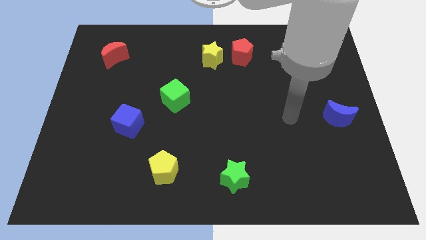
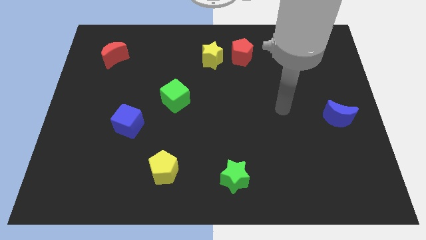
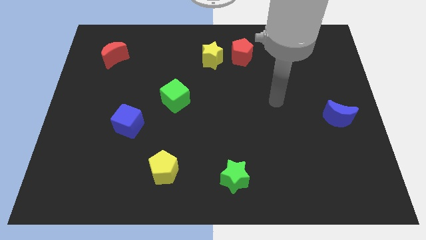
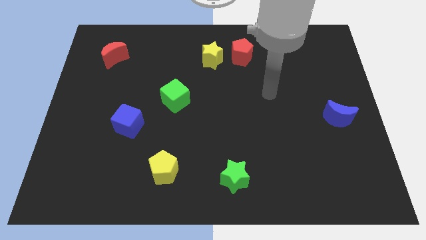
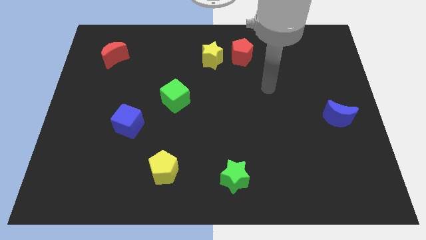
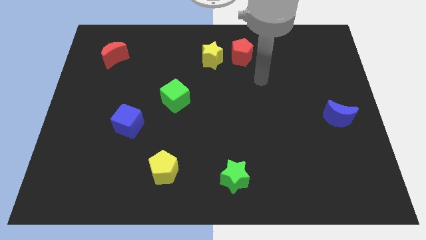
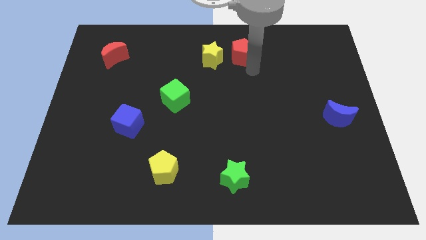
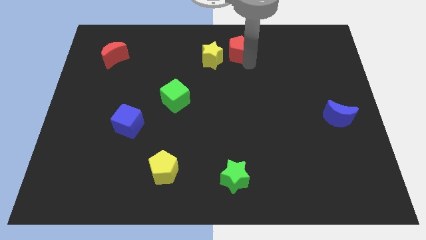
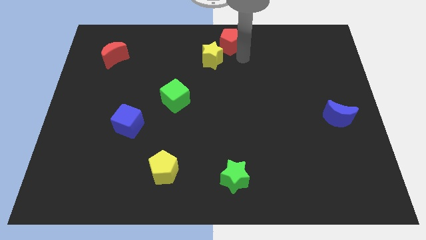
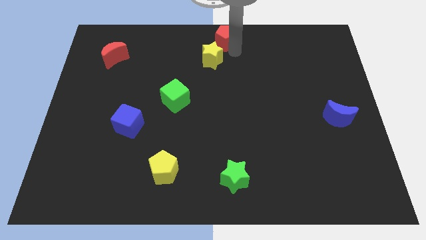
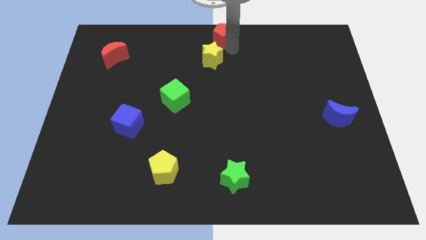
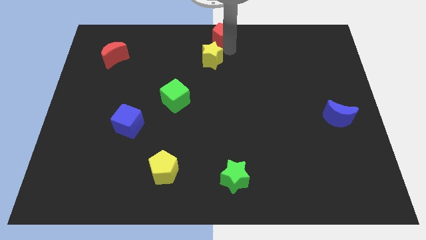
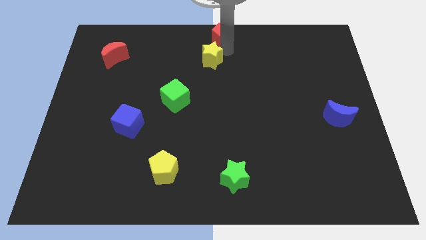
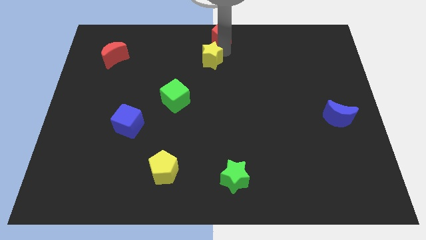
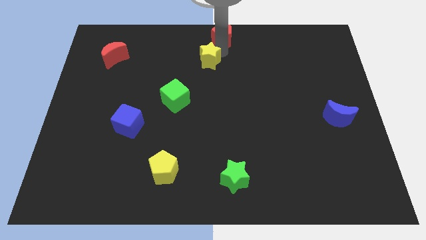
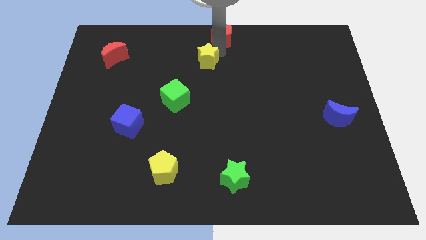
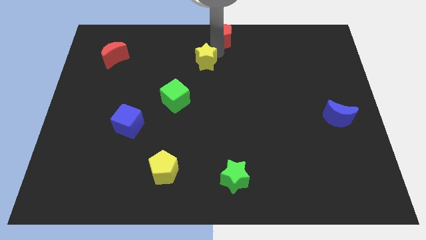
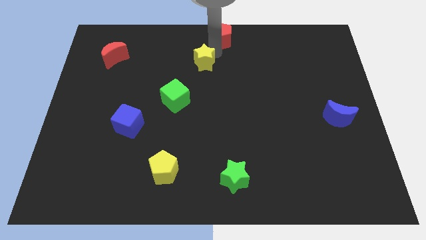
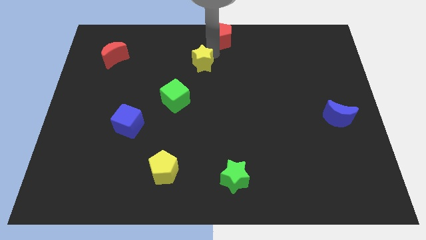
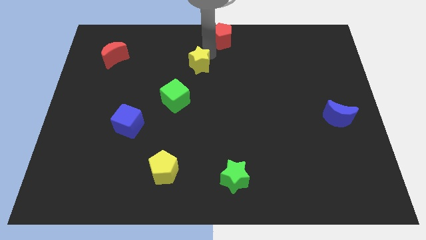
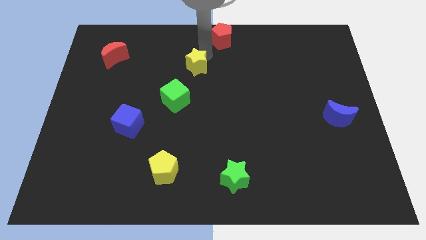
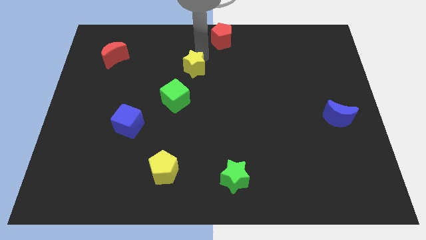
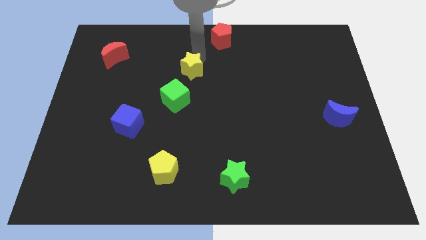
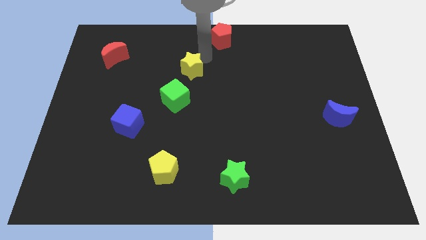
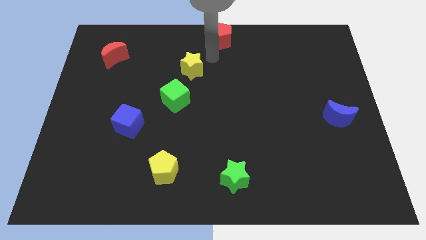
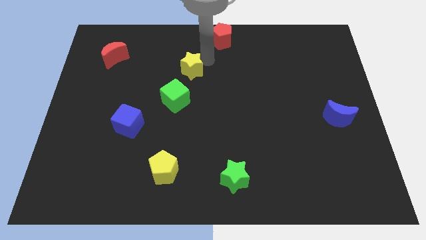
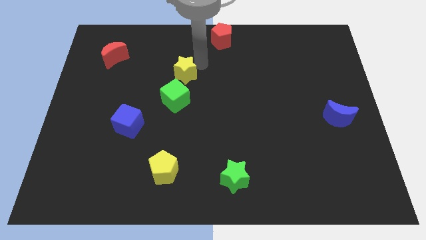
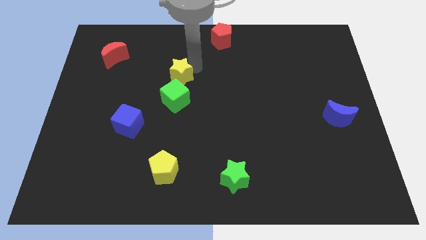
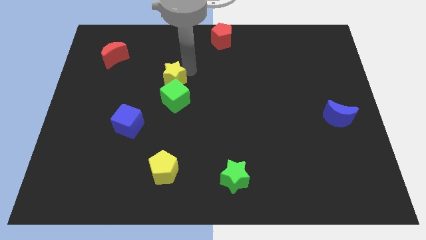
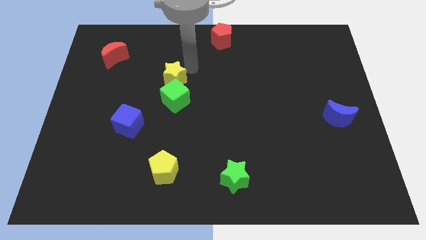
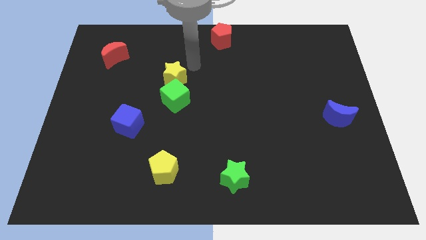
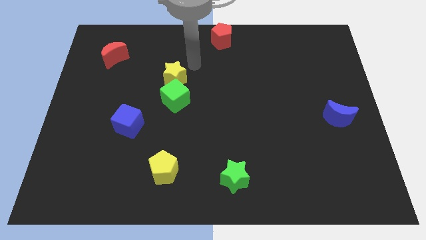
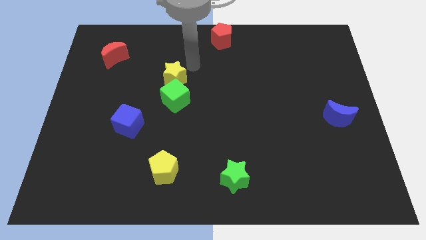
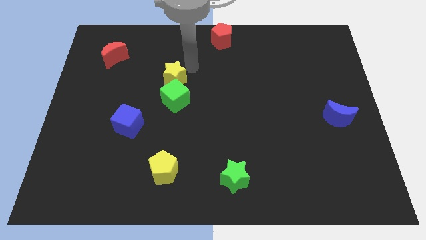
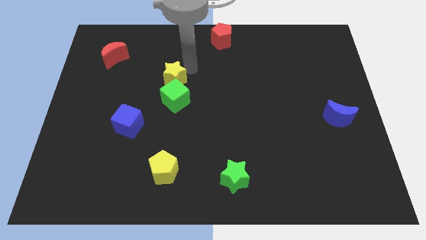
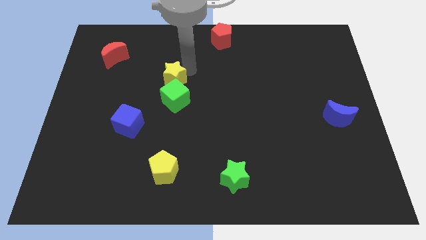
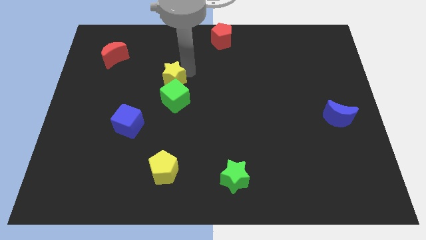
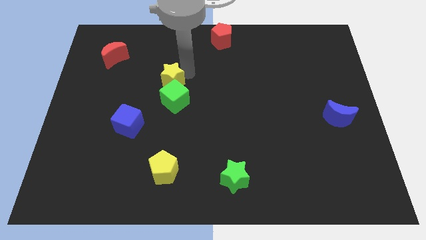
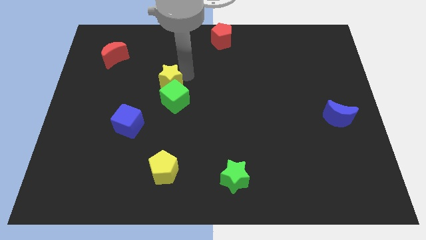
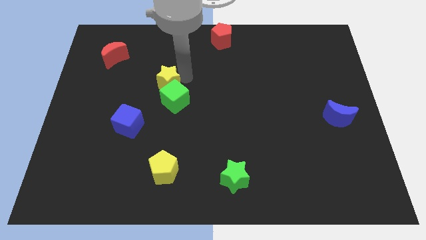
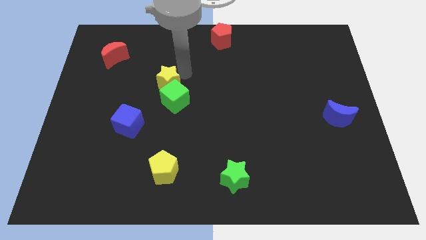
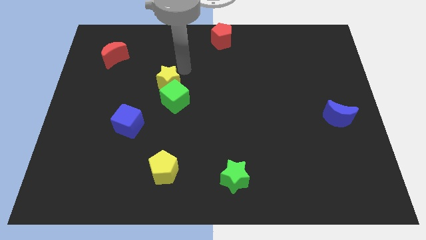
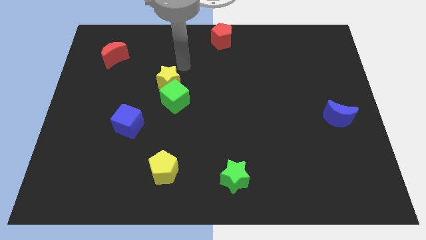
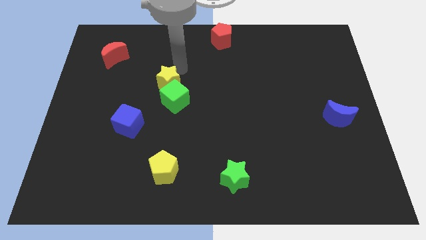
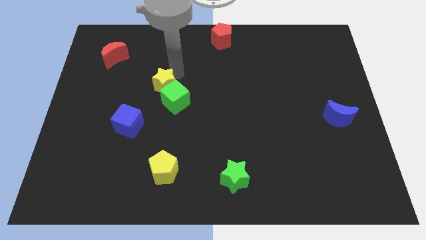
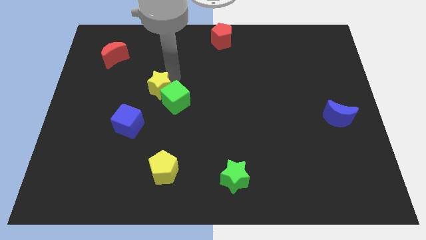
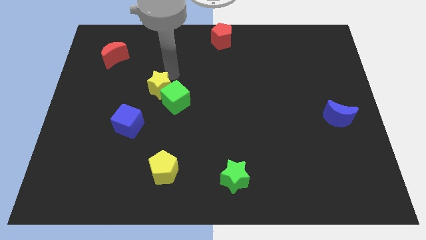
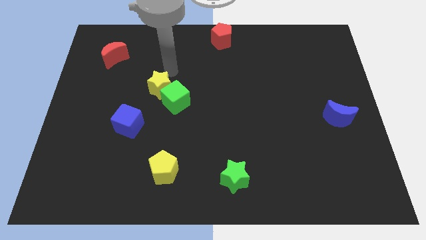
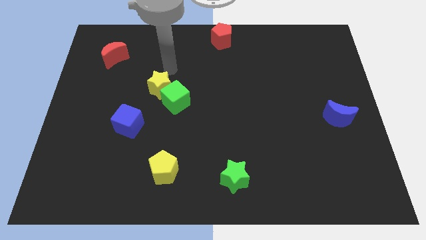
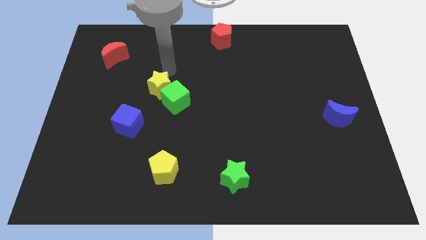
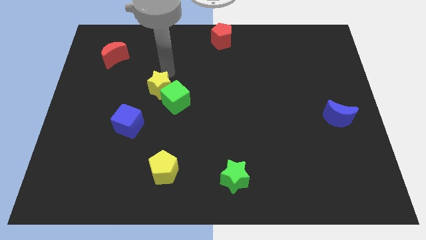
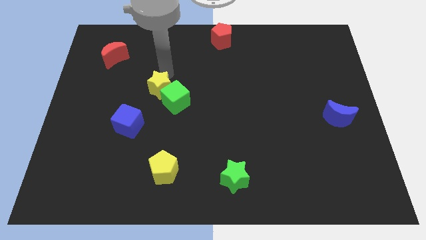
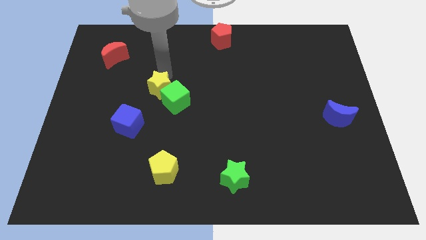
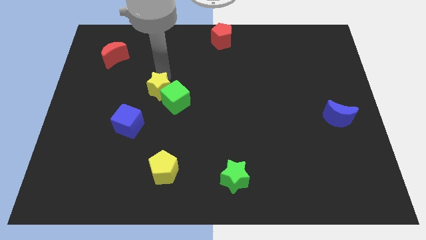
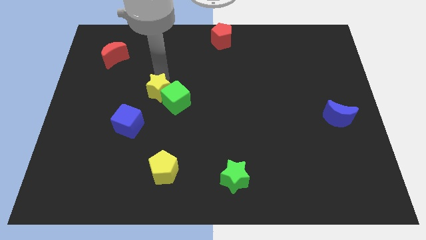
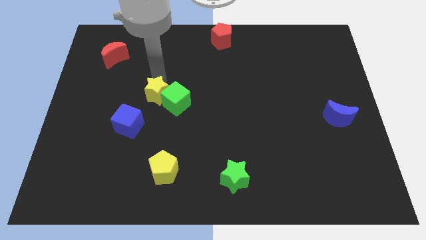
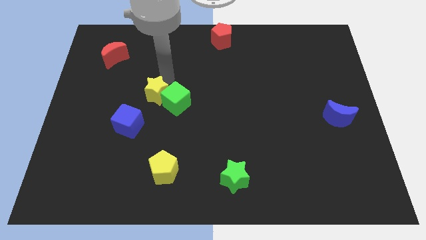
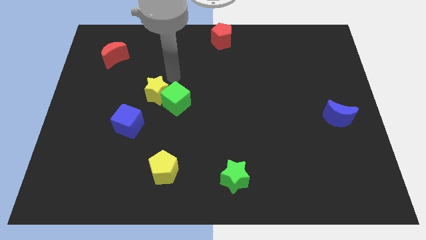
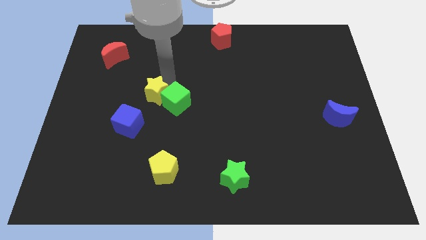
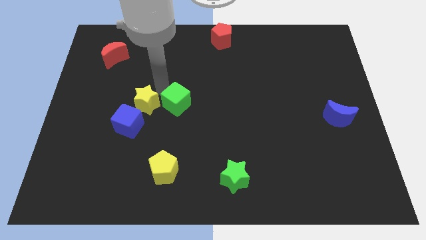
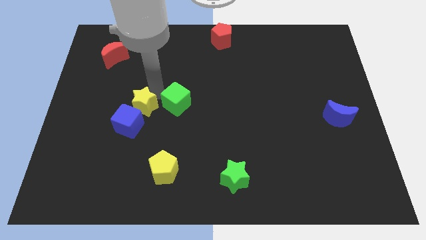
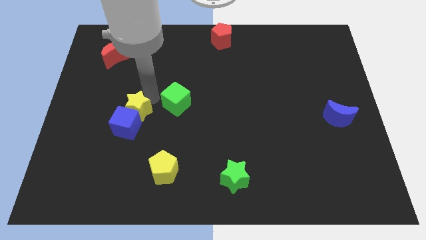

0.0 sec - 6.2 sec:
put the yellow star next to the blue cube

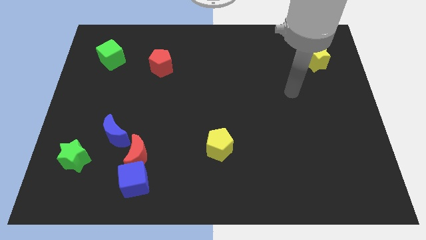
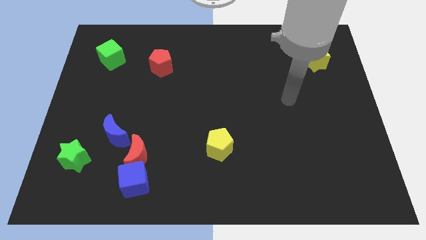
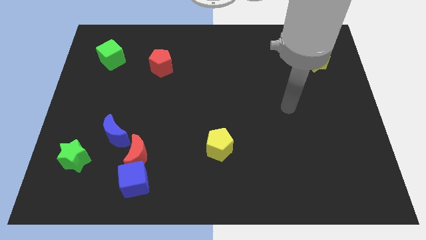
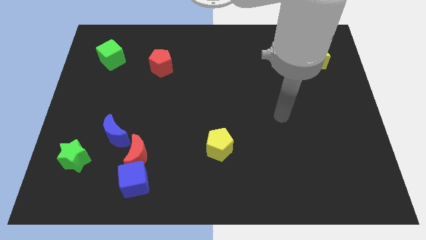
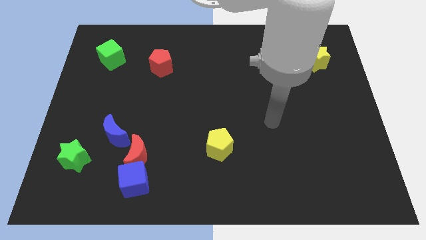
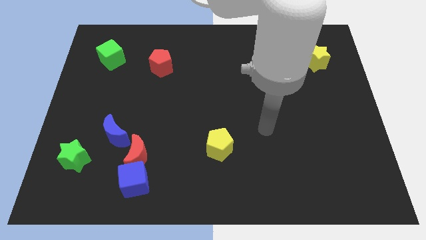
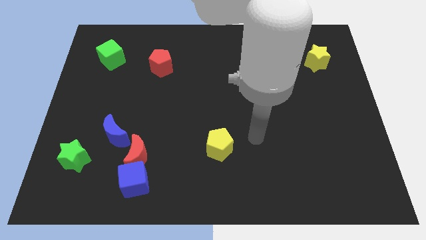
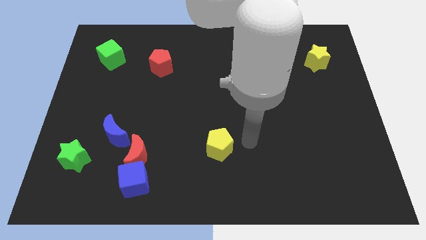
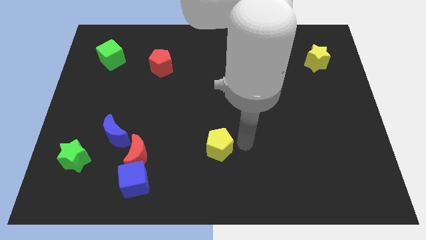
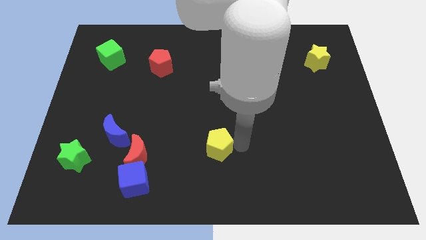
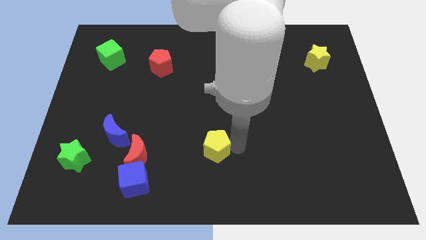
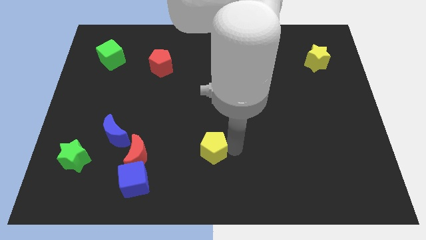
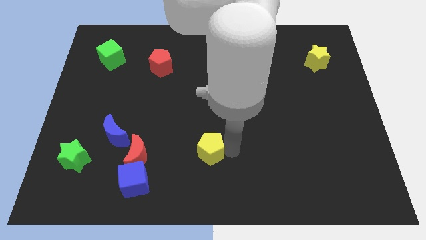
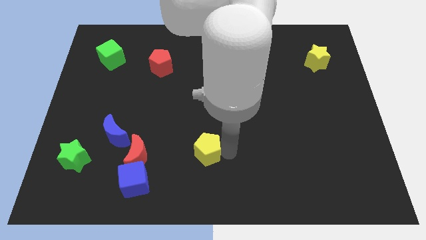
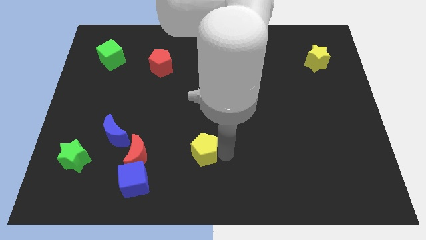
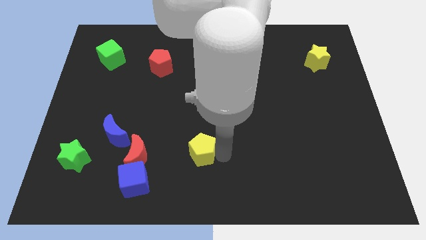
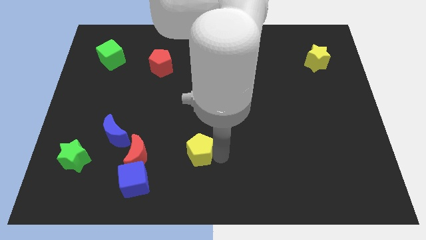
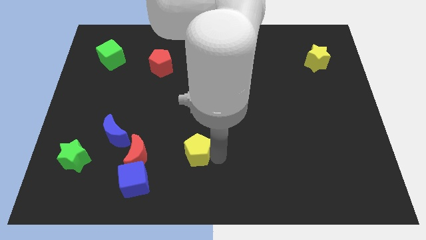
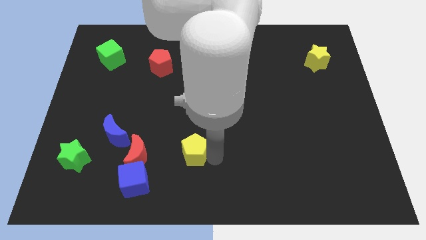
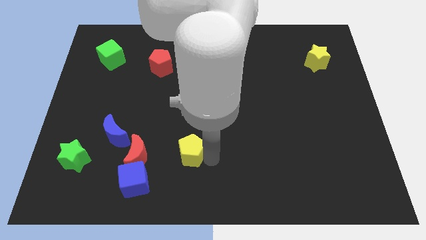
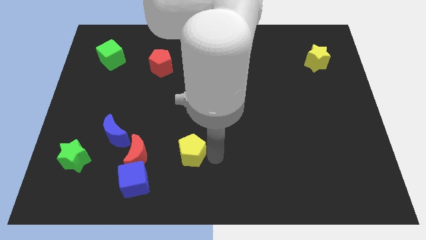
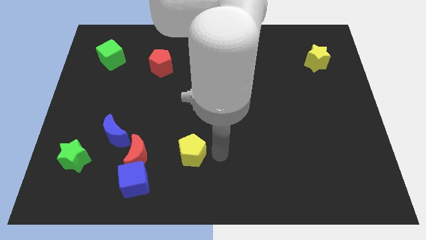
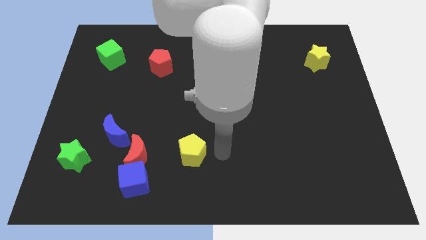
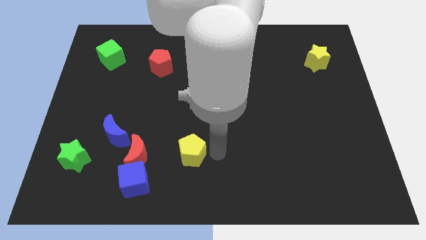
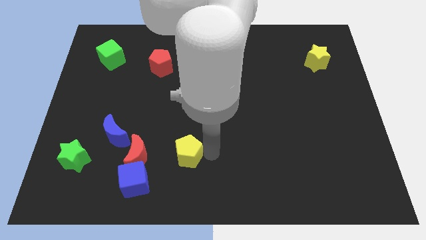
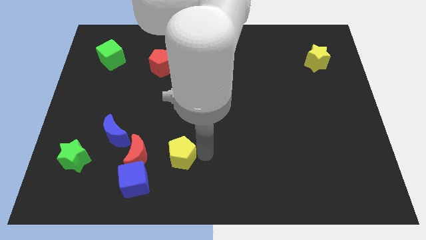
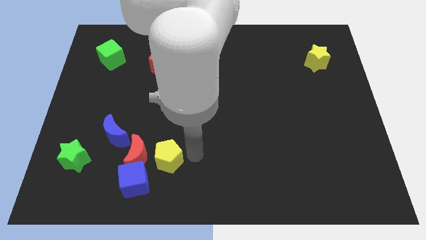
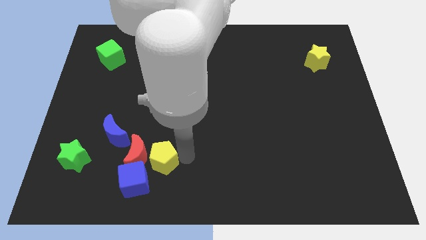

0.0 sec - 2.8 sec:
push the yellow pentagon next to the red moon
